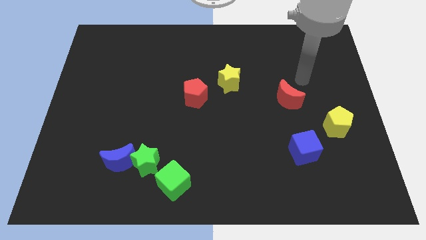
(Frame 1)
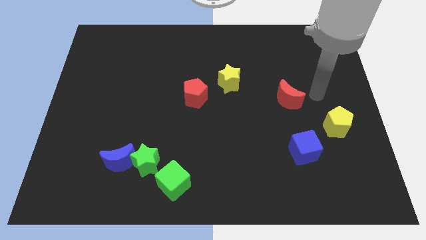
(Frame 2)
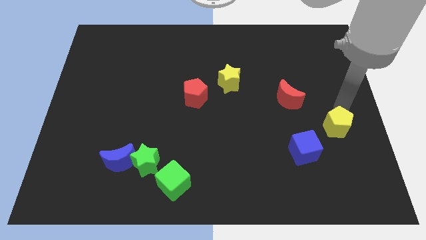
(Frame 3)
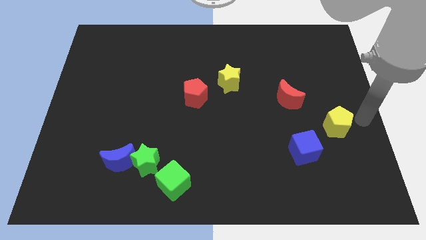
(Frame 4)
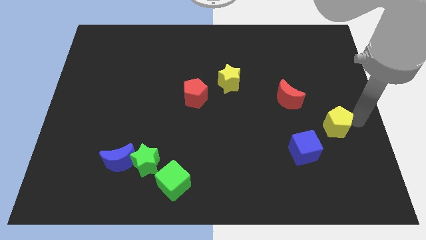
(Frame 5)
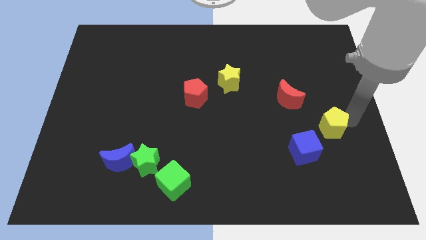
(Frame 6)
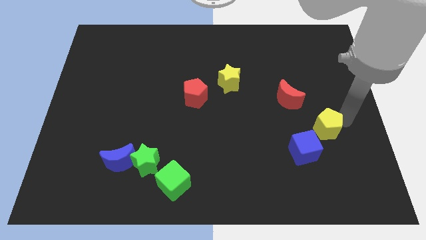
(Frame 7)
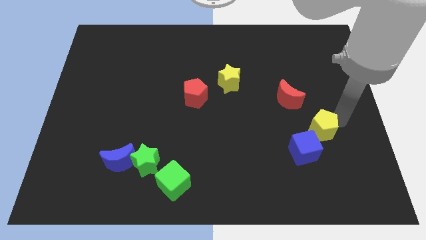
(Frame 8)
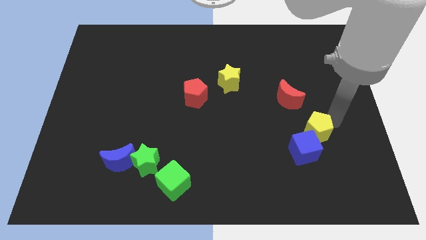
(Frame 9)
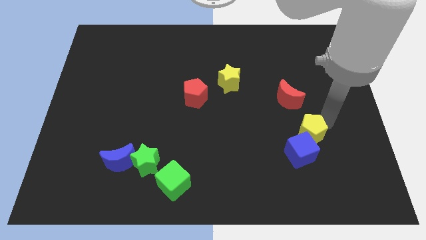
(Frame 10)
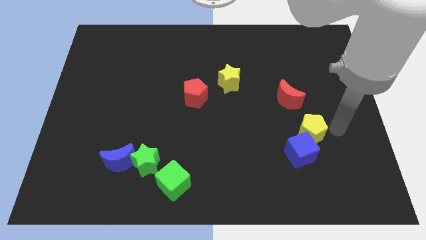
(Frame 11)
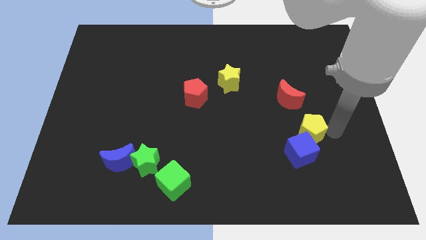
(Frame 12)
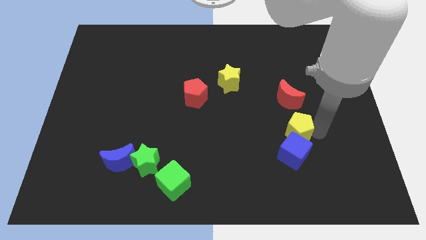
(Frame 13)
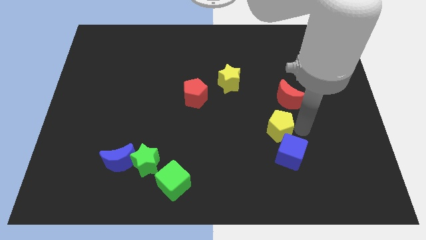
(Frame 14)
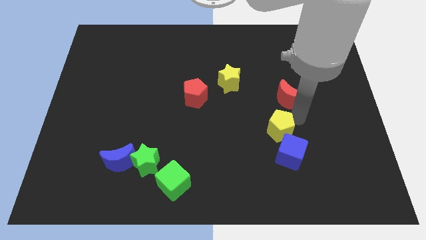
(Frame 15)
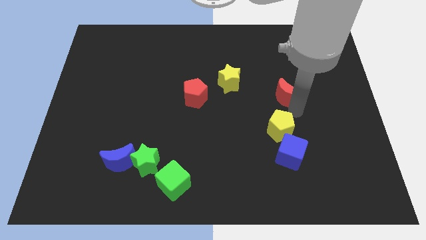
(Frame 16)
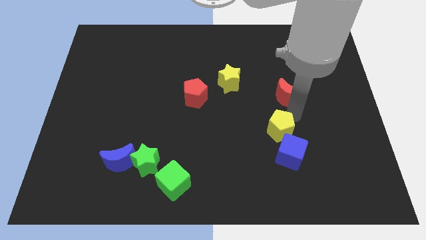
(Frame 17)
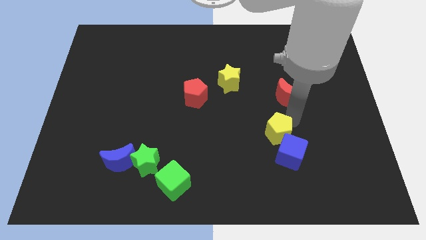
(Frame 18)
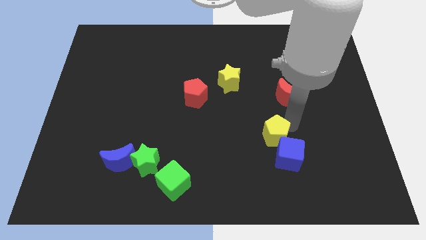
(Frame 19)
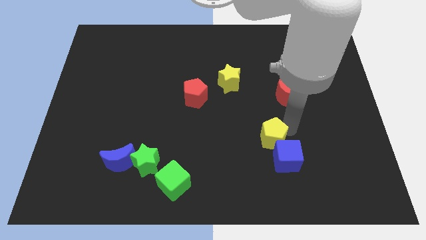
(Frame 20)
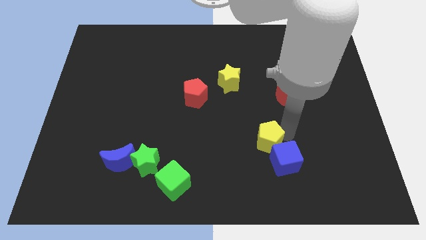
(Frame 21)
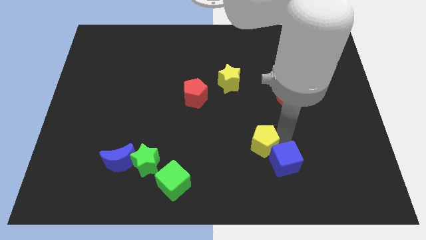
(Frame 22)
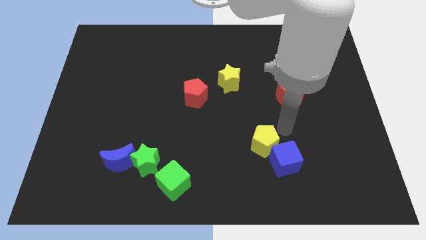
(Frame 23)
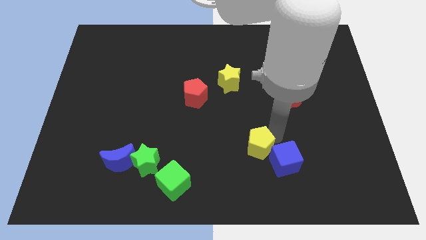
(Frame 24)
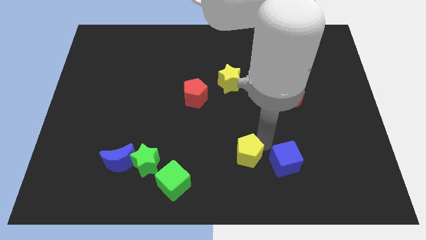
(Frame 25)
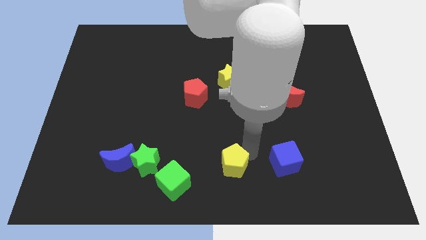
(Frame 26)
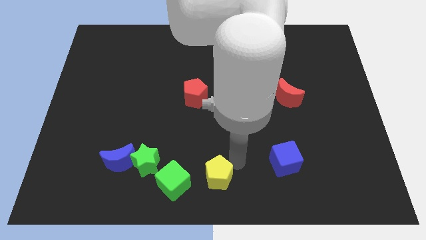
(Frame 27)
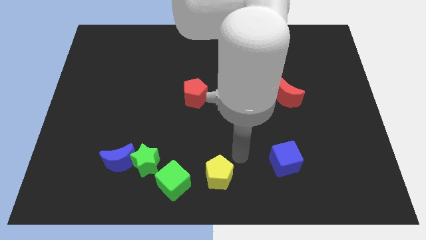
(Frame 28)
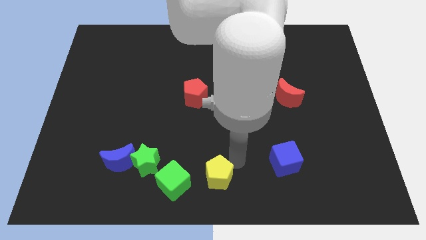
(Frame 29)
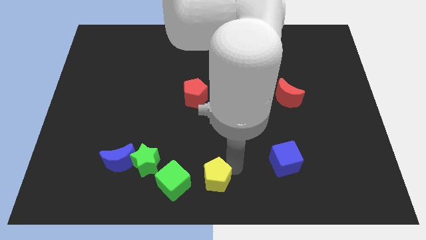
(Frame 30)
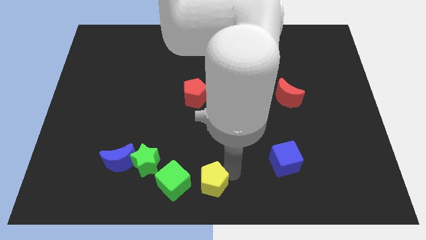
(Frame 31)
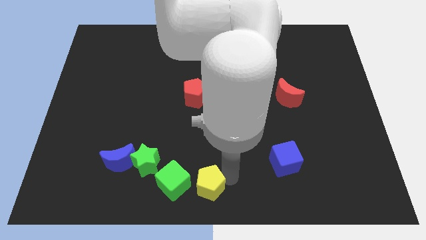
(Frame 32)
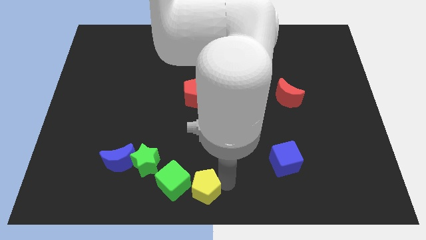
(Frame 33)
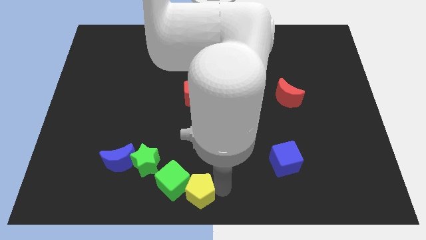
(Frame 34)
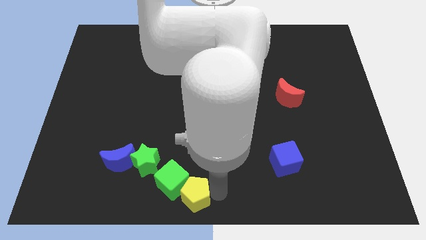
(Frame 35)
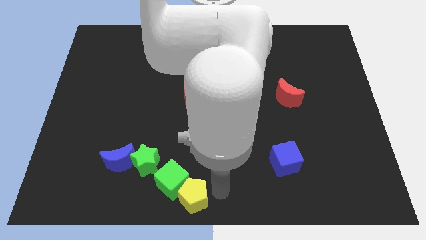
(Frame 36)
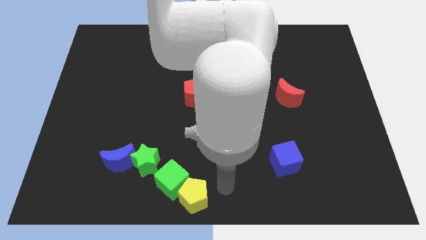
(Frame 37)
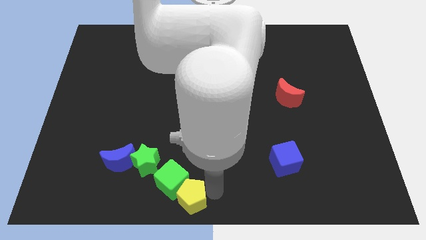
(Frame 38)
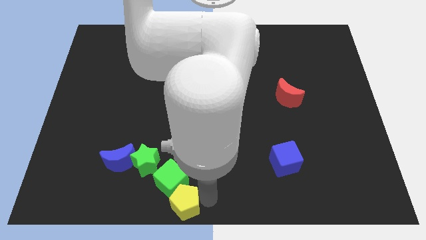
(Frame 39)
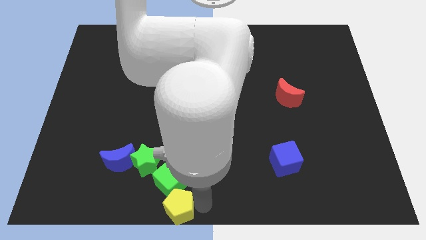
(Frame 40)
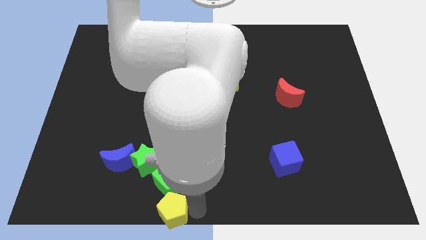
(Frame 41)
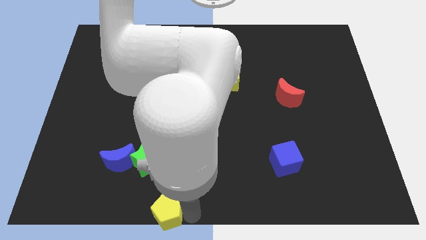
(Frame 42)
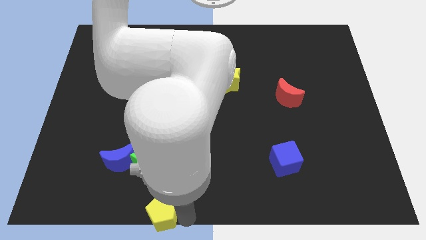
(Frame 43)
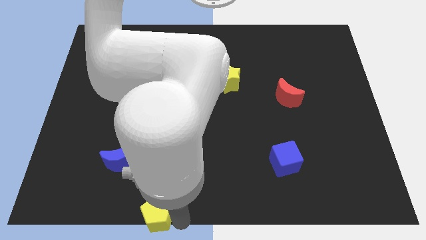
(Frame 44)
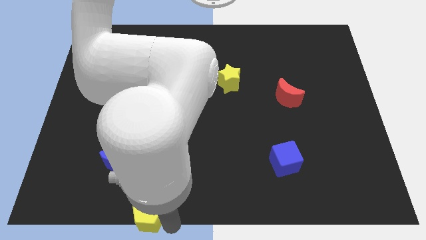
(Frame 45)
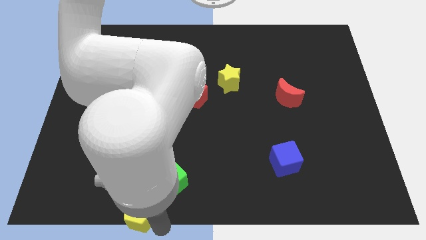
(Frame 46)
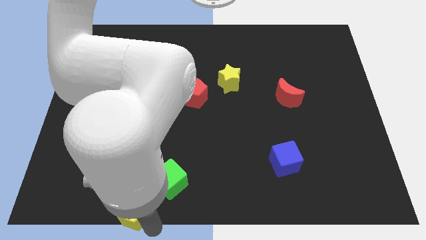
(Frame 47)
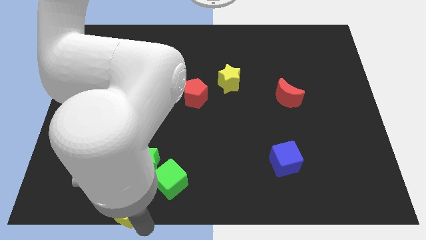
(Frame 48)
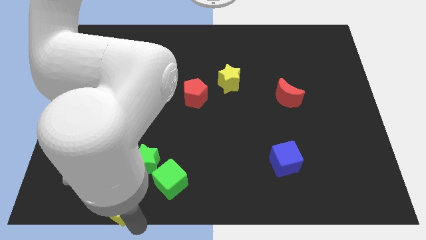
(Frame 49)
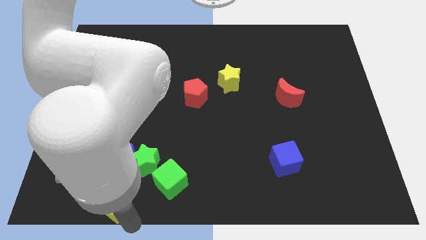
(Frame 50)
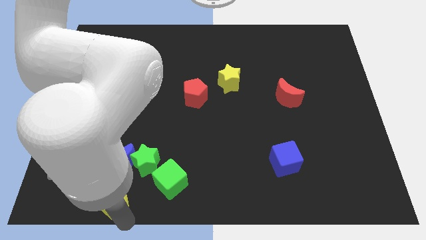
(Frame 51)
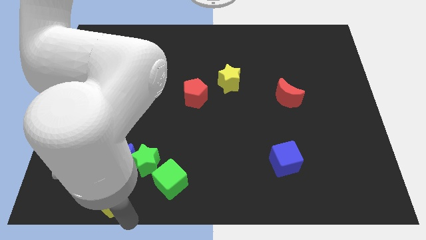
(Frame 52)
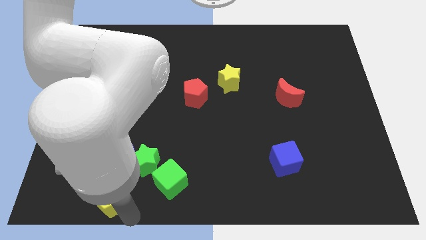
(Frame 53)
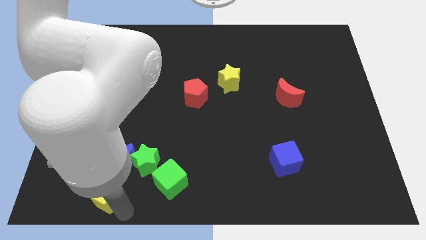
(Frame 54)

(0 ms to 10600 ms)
slide the yellow pentagon to the bottom left side of the blue moon

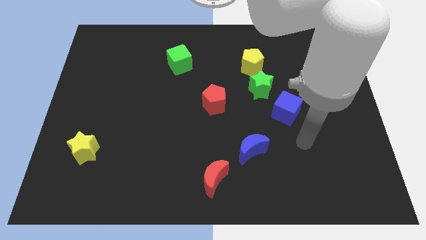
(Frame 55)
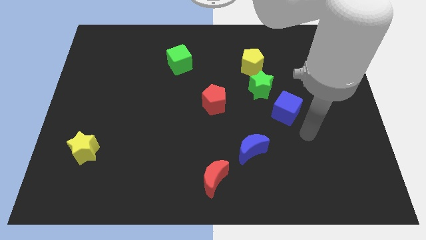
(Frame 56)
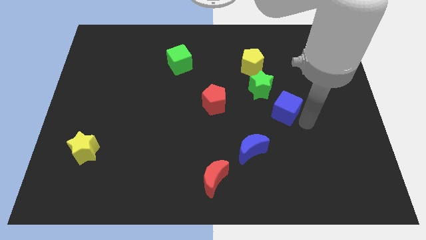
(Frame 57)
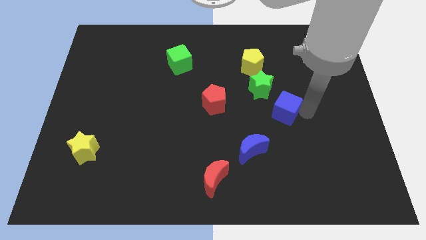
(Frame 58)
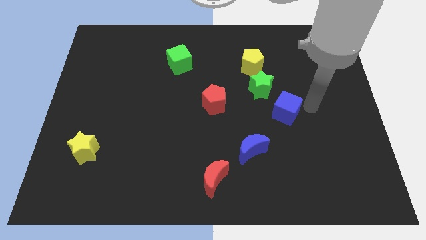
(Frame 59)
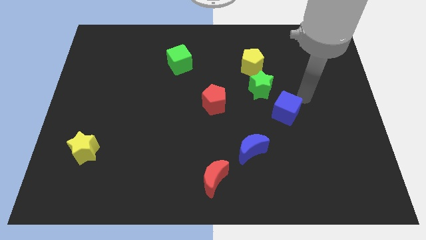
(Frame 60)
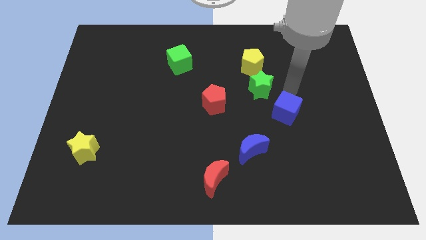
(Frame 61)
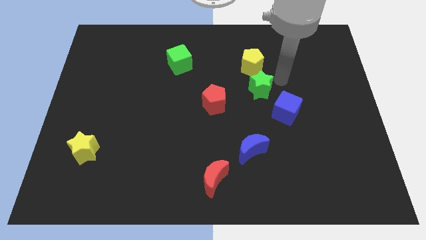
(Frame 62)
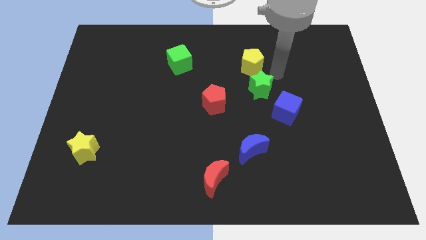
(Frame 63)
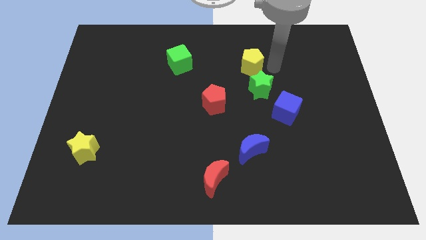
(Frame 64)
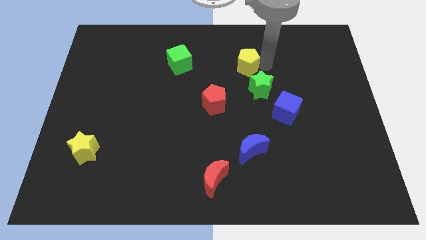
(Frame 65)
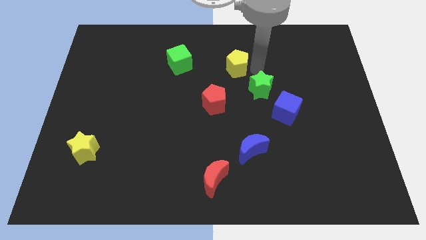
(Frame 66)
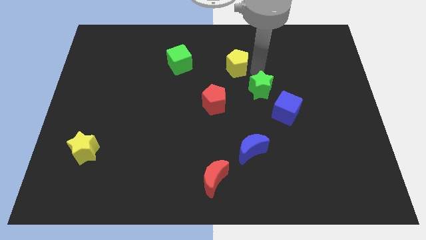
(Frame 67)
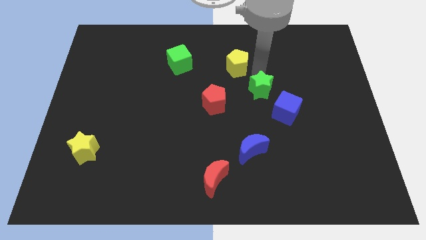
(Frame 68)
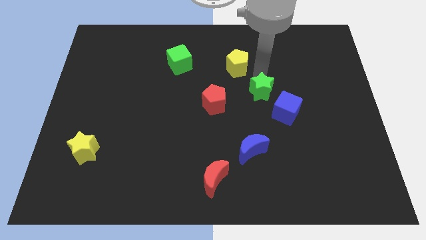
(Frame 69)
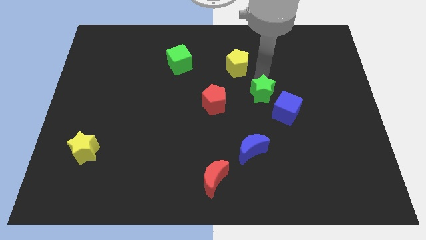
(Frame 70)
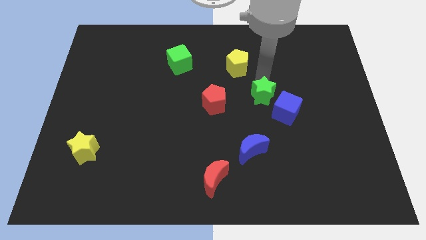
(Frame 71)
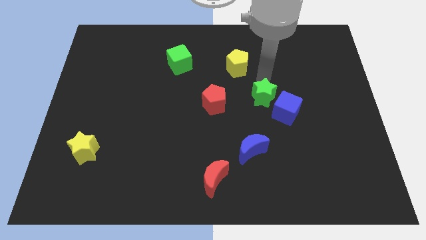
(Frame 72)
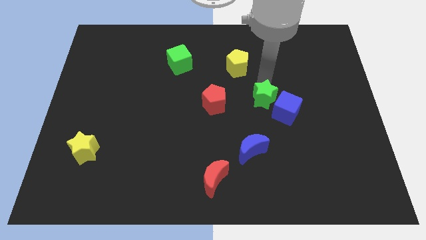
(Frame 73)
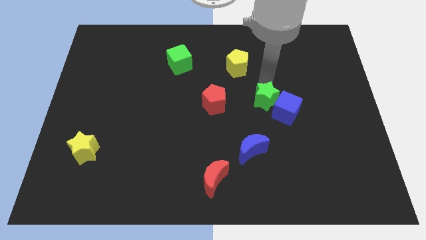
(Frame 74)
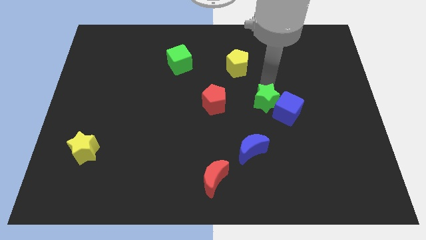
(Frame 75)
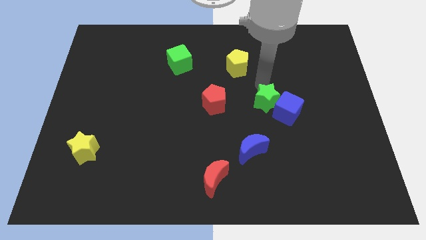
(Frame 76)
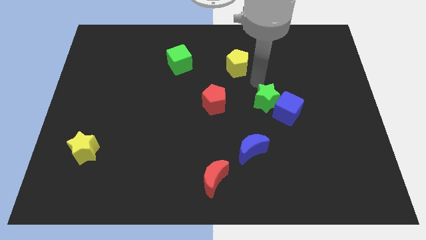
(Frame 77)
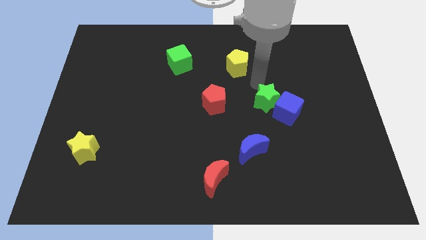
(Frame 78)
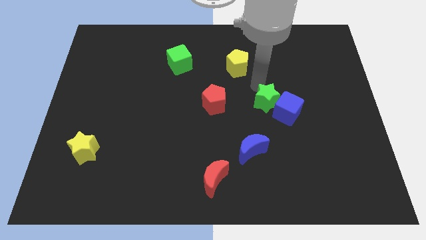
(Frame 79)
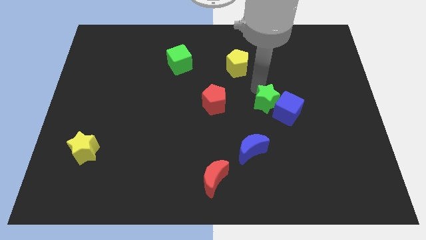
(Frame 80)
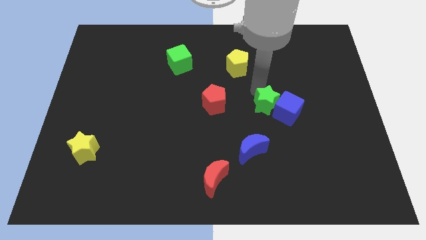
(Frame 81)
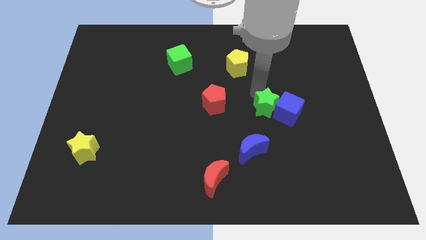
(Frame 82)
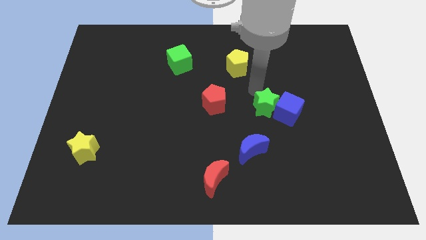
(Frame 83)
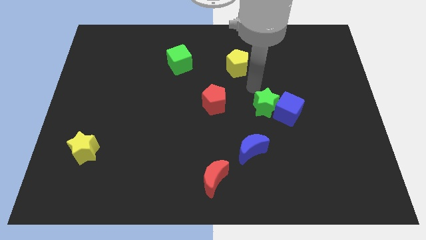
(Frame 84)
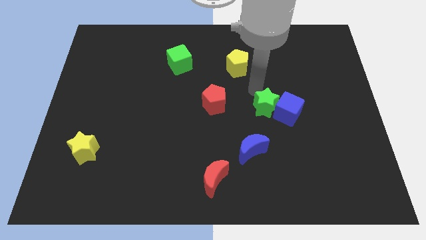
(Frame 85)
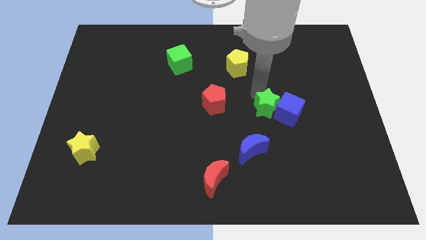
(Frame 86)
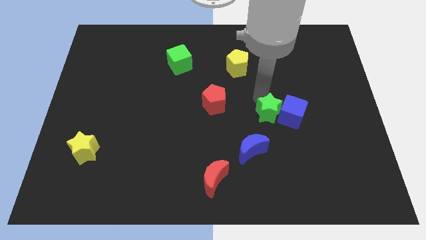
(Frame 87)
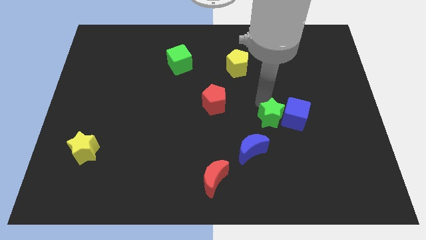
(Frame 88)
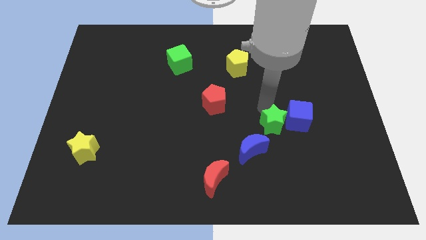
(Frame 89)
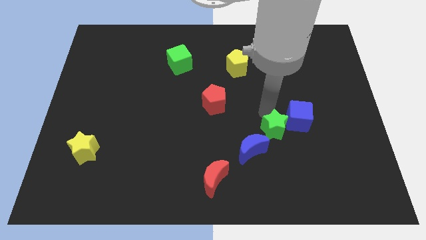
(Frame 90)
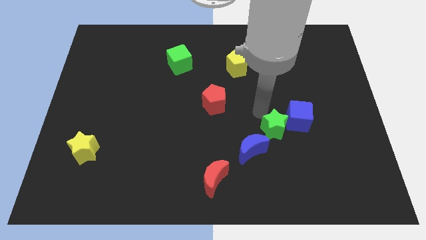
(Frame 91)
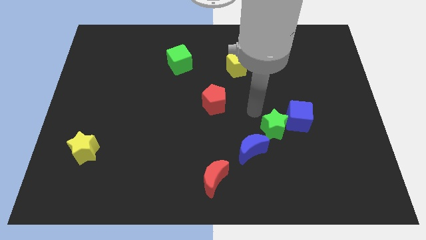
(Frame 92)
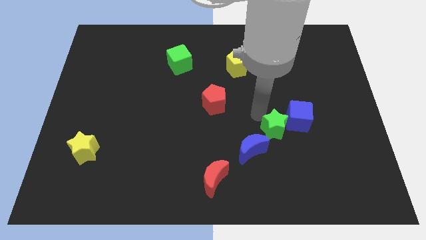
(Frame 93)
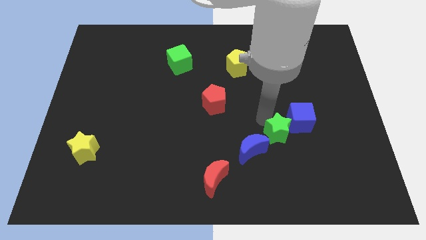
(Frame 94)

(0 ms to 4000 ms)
move the green star to the right of the blue moon
